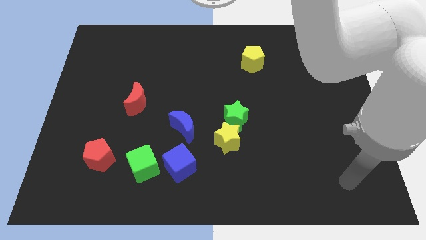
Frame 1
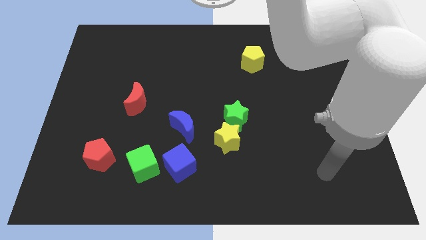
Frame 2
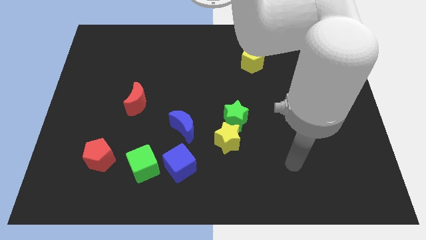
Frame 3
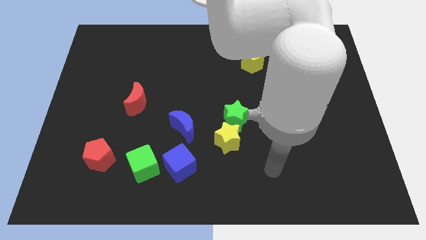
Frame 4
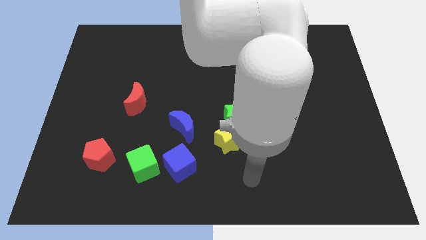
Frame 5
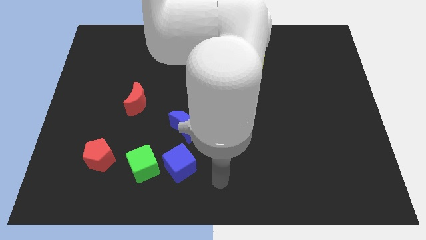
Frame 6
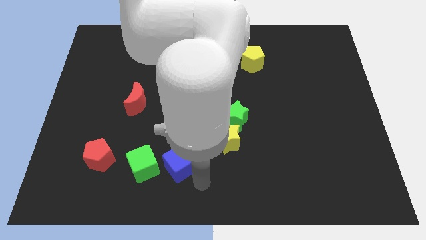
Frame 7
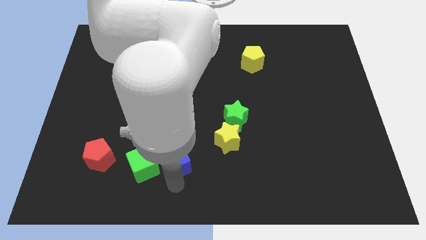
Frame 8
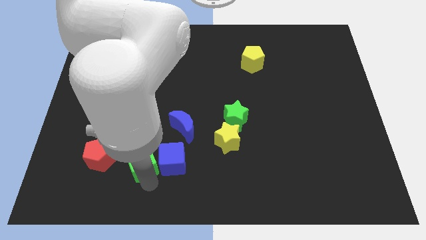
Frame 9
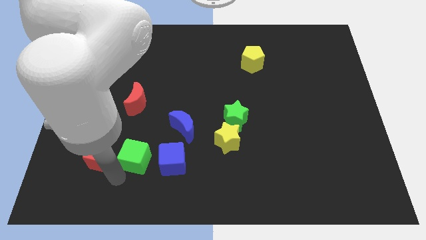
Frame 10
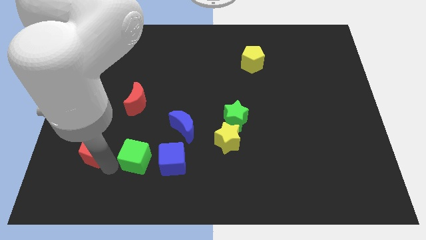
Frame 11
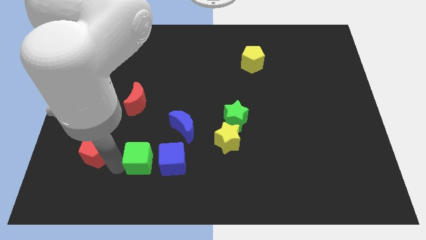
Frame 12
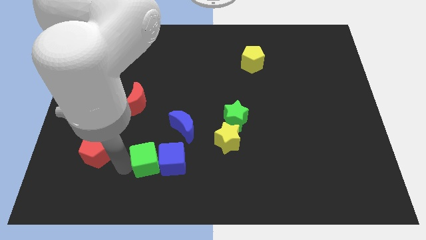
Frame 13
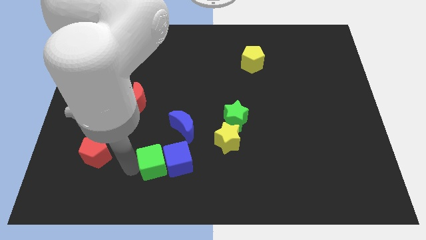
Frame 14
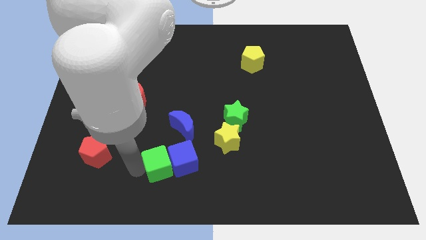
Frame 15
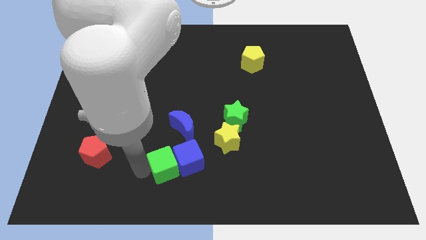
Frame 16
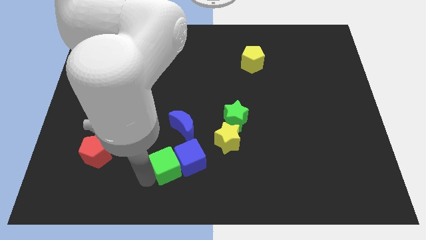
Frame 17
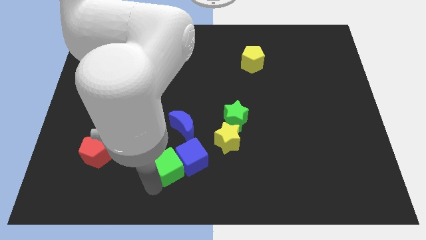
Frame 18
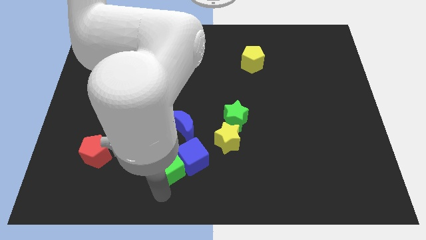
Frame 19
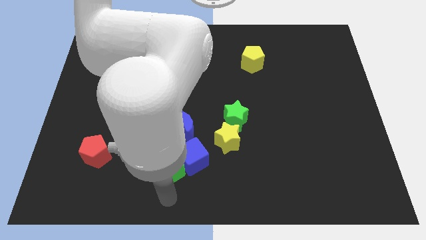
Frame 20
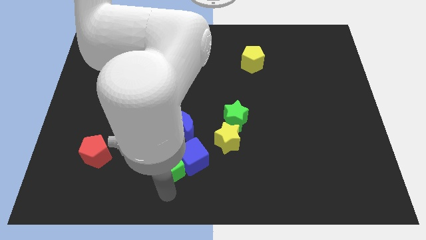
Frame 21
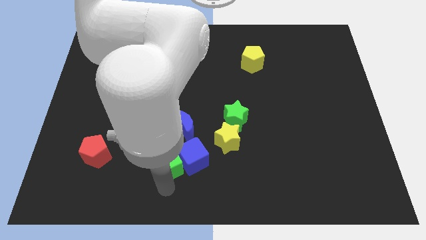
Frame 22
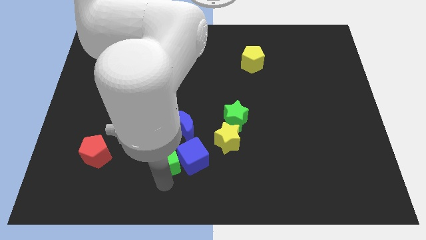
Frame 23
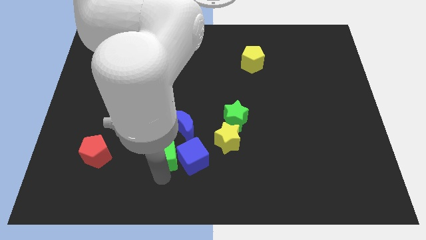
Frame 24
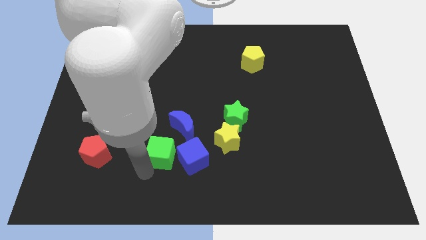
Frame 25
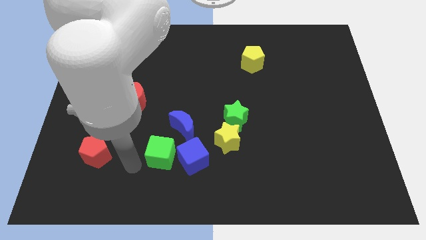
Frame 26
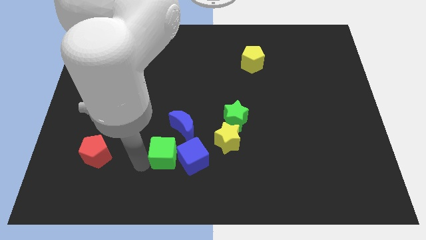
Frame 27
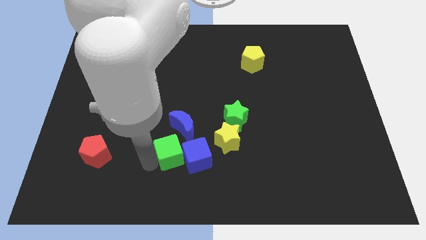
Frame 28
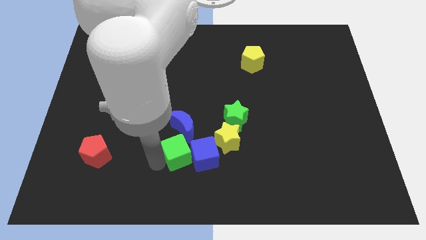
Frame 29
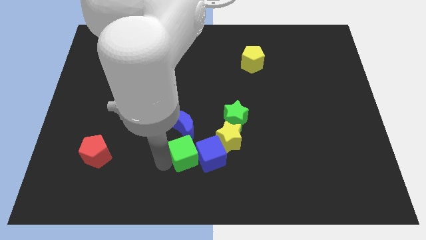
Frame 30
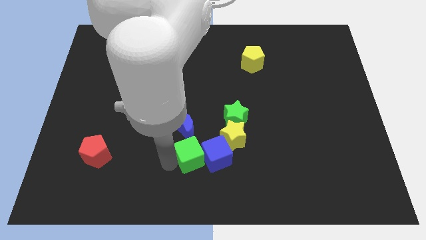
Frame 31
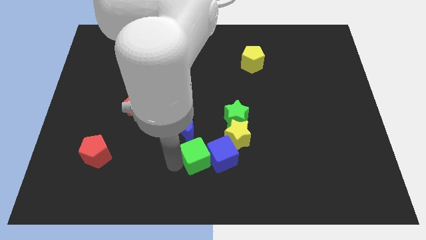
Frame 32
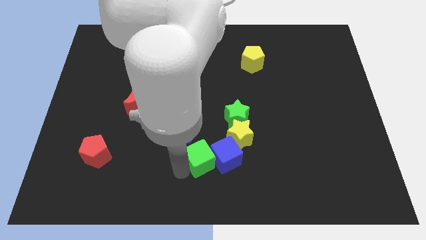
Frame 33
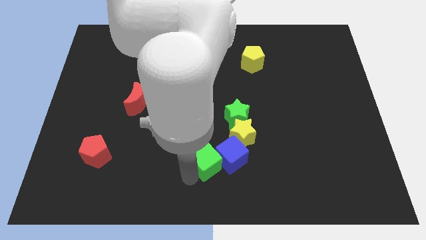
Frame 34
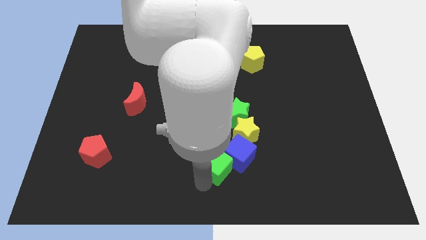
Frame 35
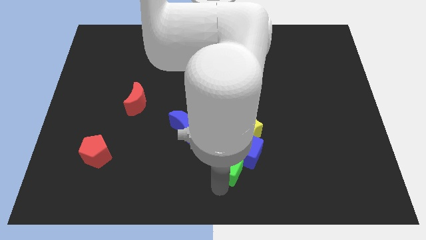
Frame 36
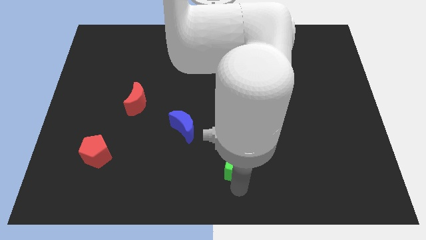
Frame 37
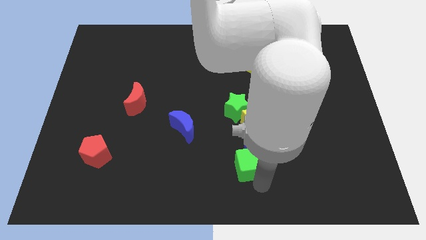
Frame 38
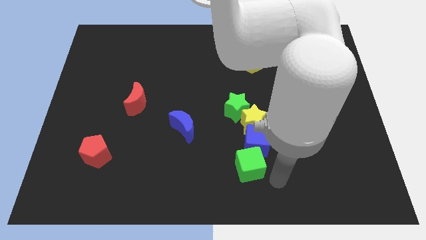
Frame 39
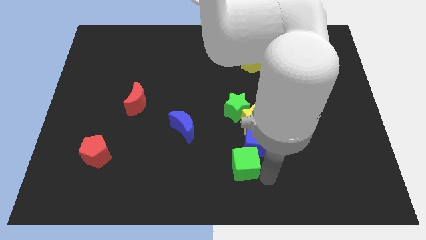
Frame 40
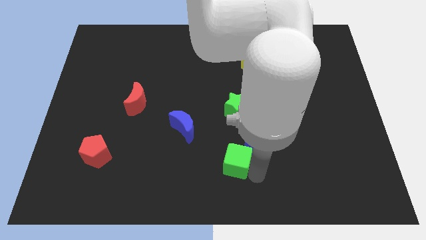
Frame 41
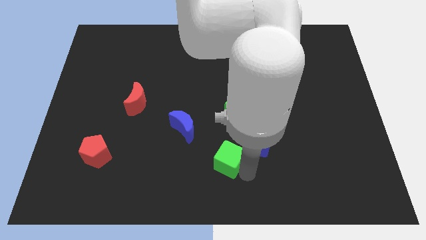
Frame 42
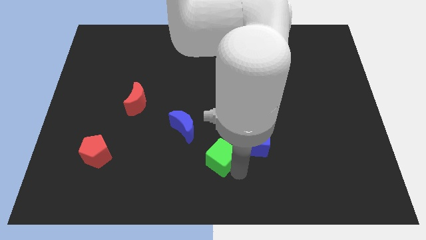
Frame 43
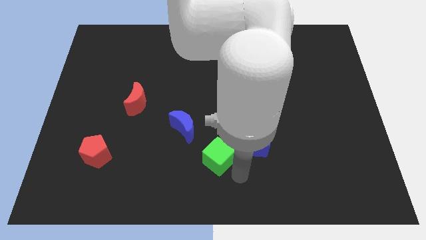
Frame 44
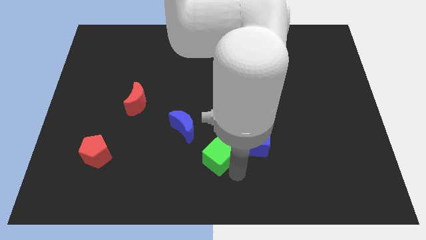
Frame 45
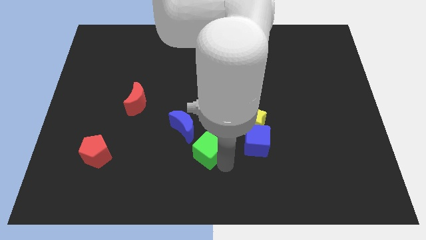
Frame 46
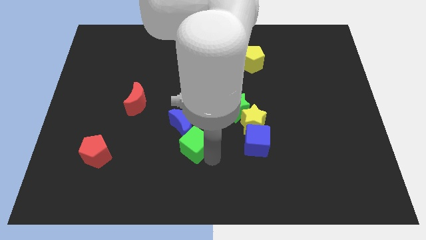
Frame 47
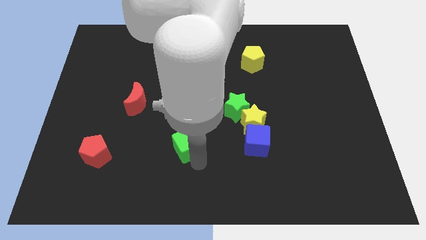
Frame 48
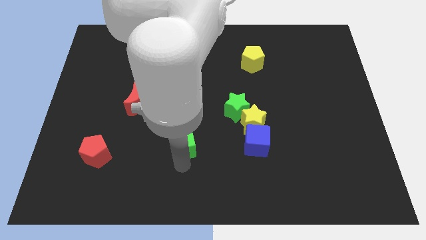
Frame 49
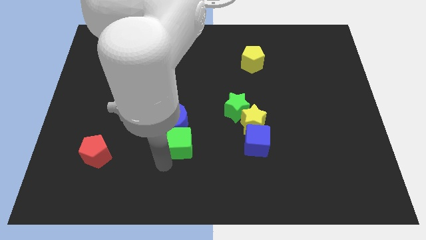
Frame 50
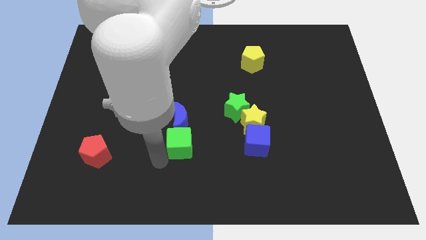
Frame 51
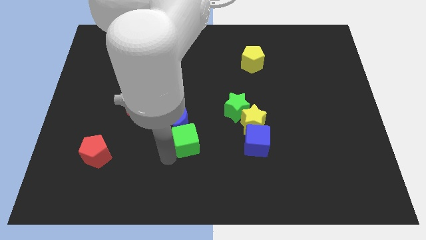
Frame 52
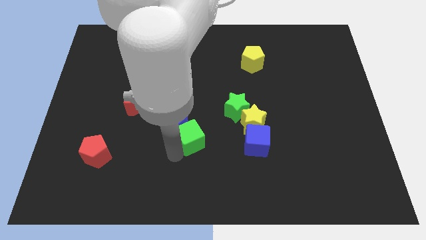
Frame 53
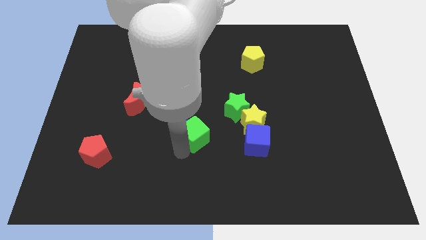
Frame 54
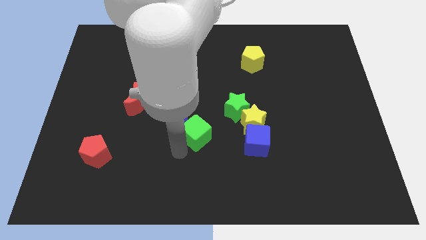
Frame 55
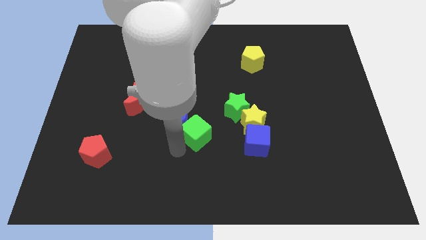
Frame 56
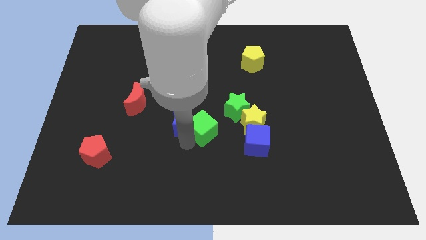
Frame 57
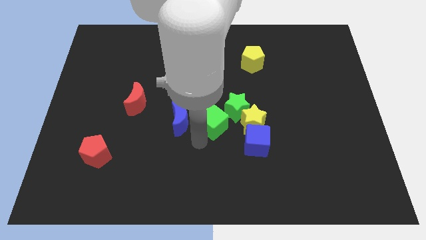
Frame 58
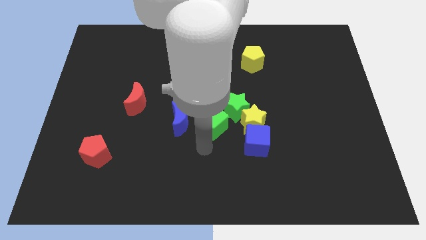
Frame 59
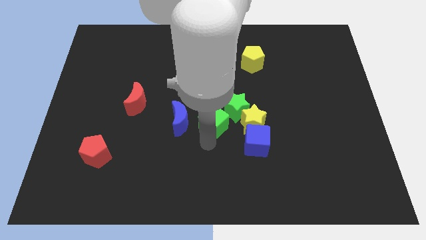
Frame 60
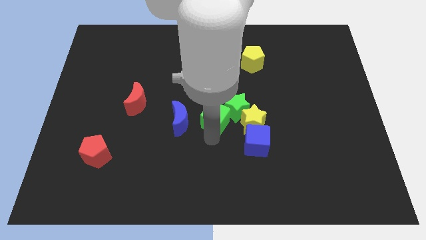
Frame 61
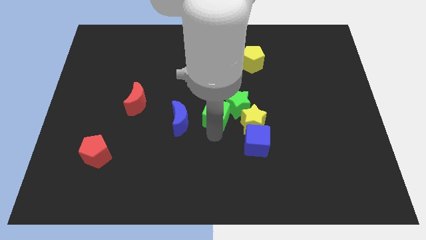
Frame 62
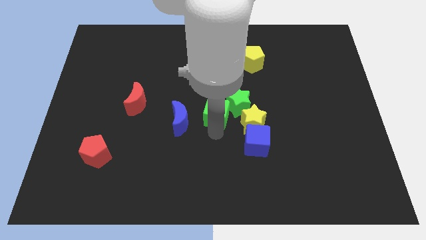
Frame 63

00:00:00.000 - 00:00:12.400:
move the green cube upwards and to the right

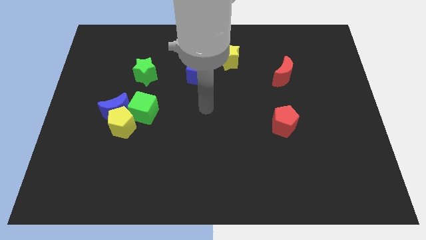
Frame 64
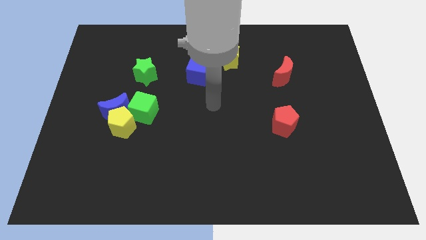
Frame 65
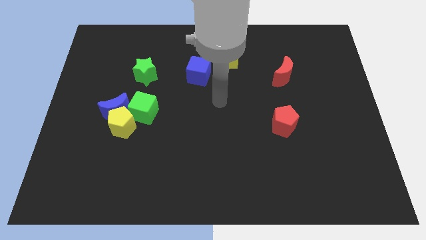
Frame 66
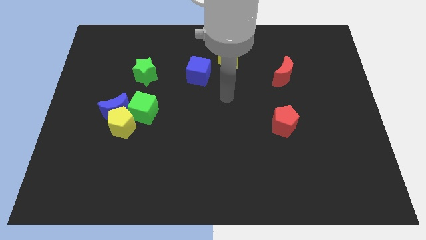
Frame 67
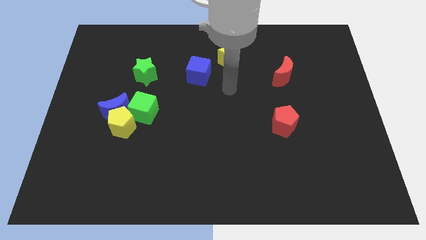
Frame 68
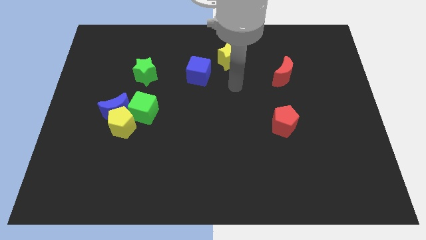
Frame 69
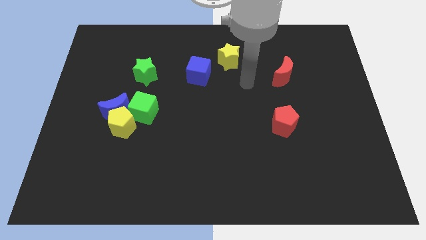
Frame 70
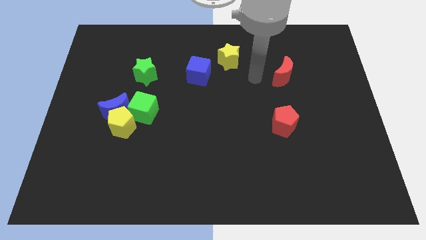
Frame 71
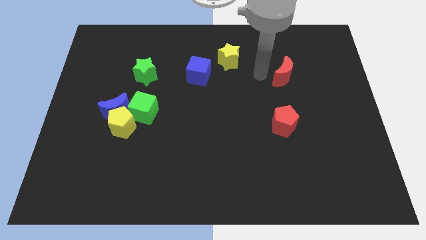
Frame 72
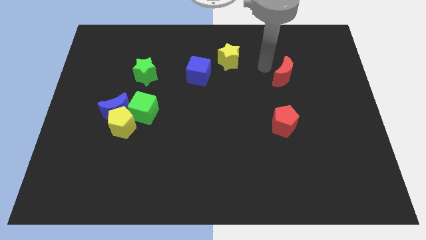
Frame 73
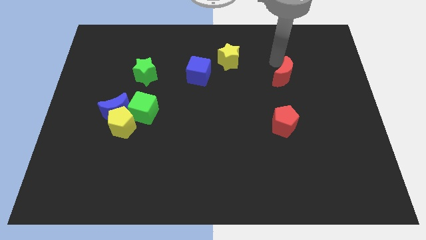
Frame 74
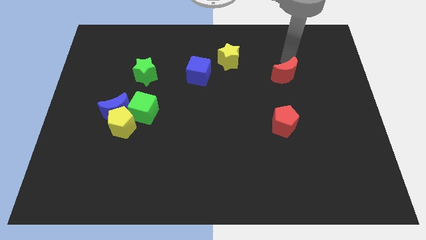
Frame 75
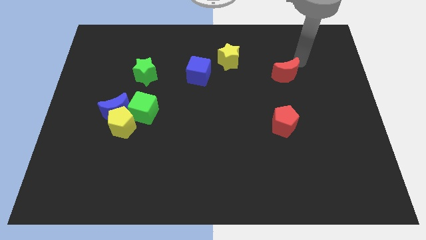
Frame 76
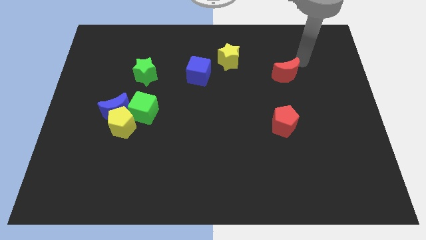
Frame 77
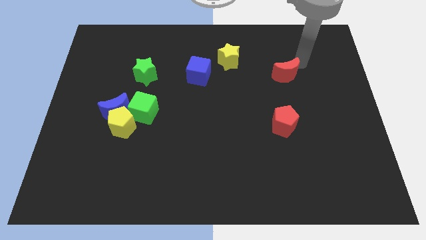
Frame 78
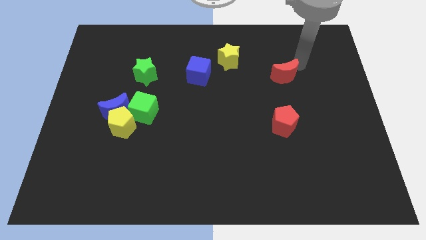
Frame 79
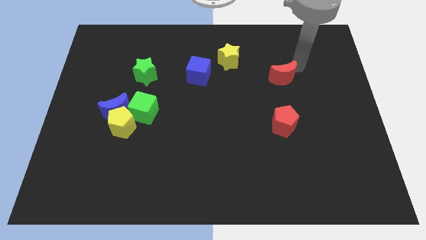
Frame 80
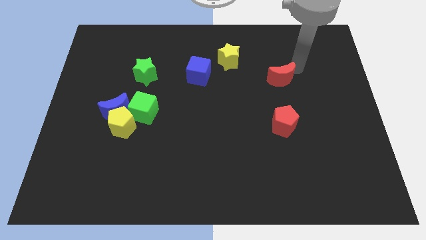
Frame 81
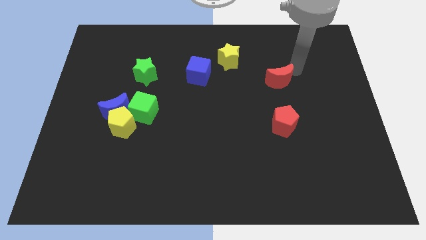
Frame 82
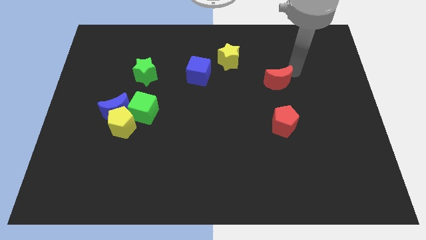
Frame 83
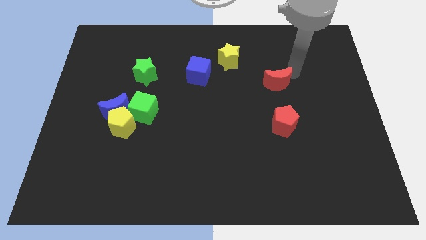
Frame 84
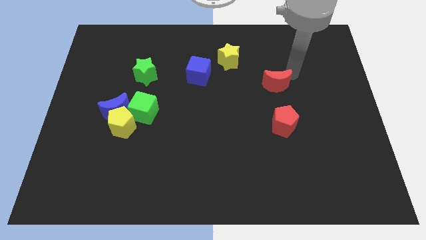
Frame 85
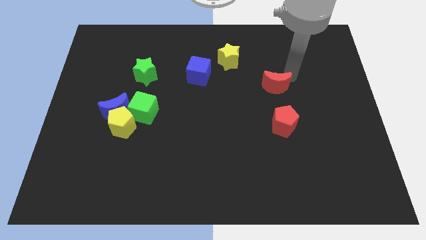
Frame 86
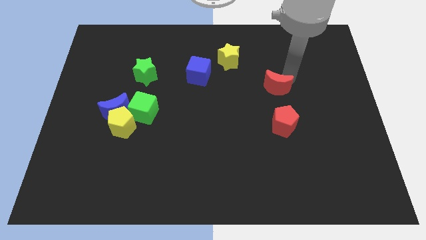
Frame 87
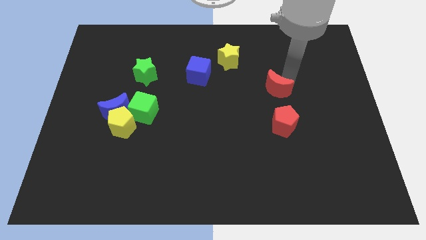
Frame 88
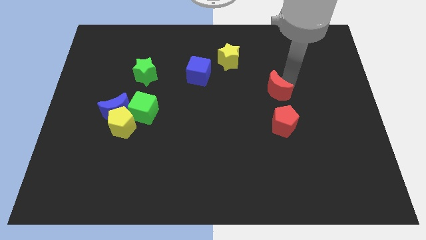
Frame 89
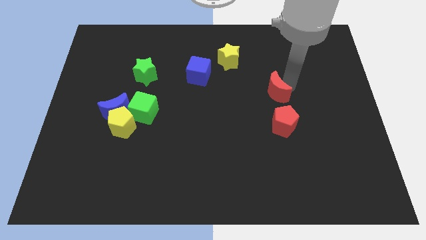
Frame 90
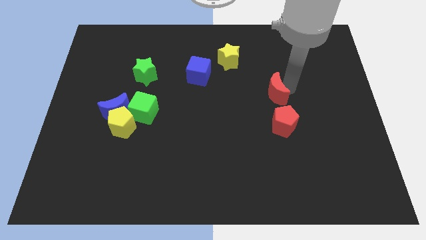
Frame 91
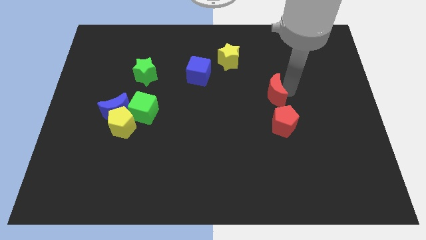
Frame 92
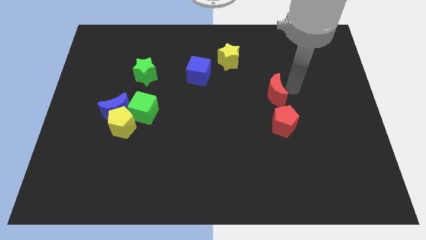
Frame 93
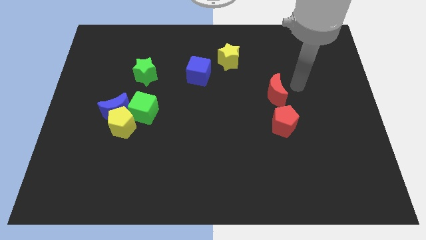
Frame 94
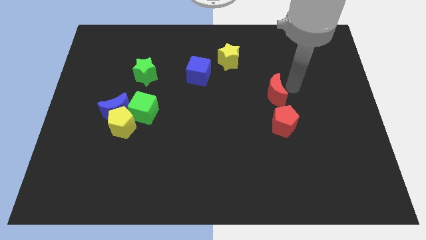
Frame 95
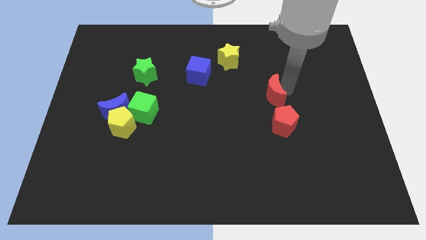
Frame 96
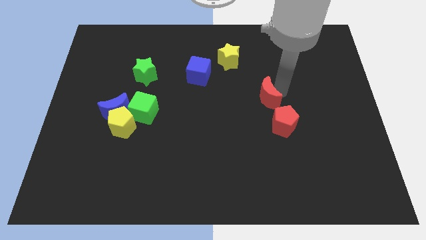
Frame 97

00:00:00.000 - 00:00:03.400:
move the red moon diagonally down and left somewhat
